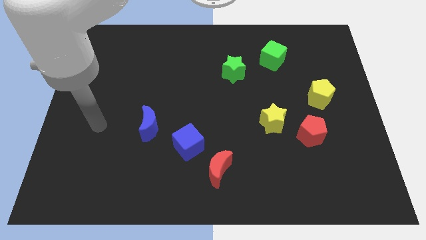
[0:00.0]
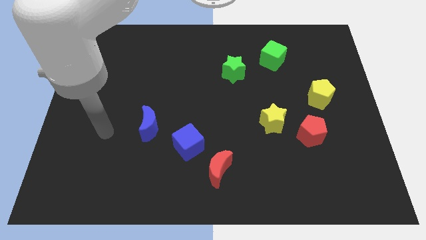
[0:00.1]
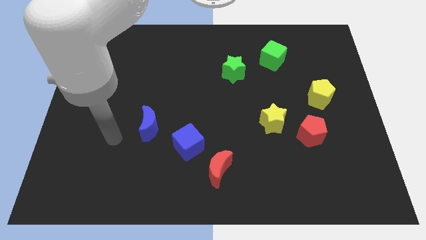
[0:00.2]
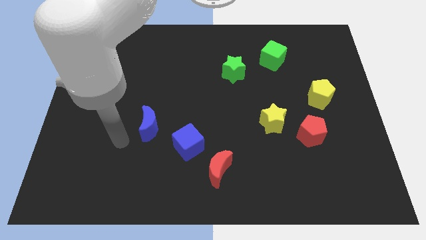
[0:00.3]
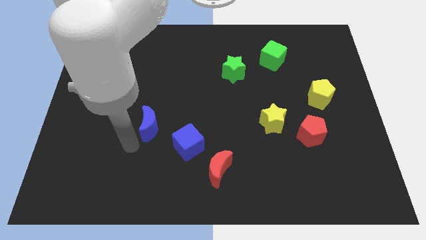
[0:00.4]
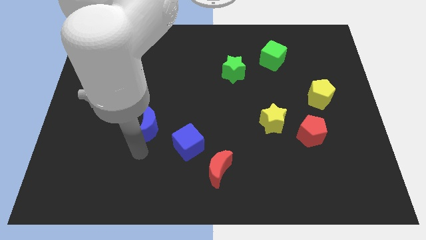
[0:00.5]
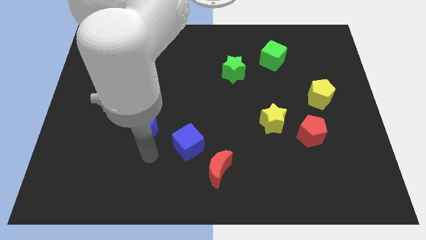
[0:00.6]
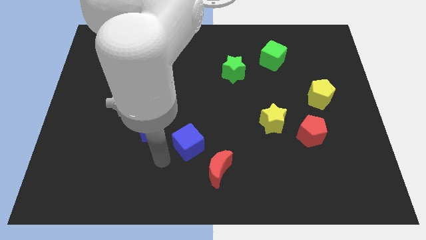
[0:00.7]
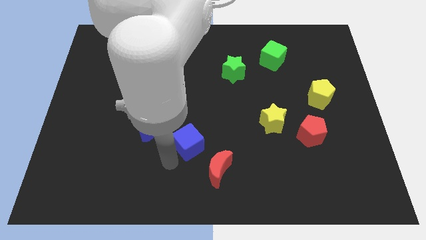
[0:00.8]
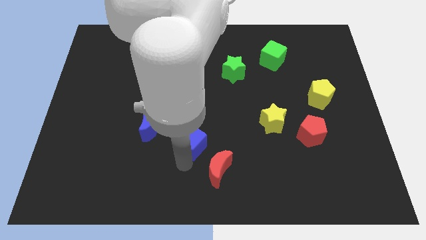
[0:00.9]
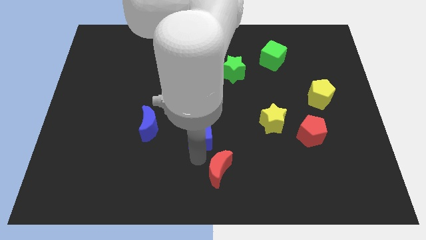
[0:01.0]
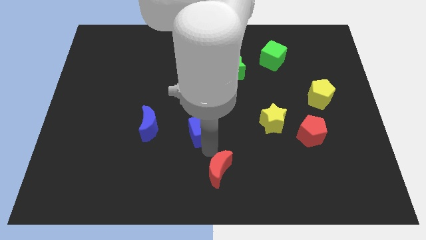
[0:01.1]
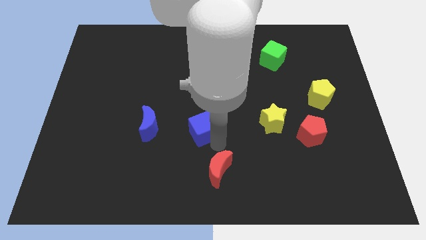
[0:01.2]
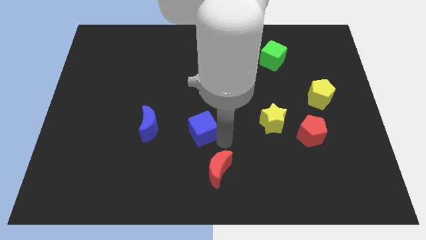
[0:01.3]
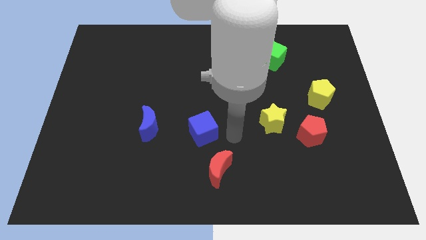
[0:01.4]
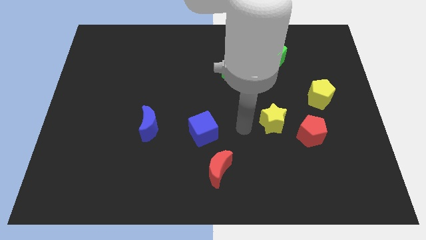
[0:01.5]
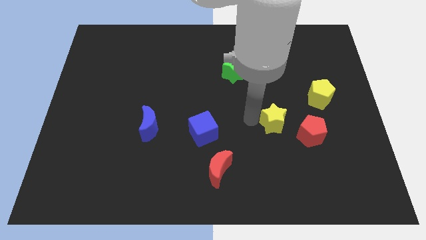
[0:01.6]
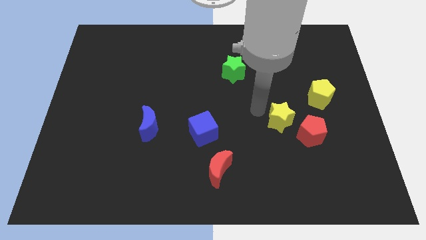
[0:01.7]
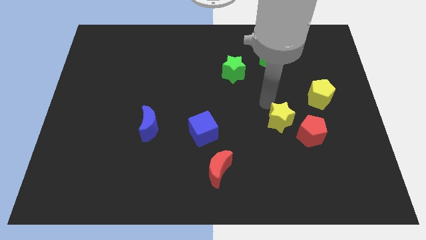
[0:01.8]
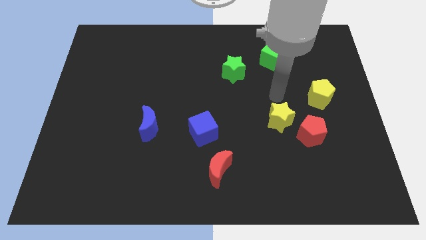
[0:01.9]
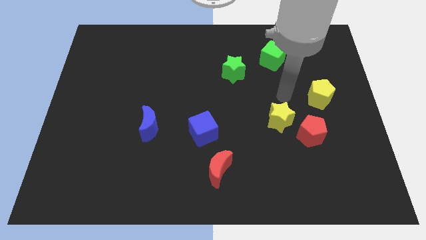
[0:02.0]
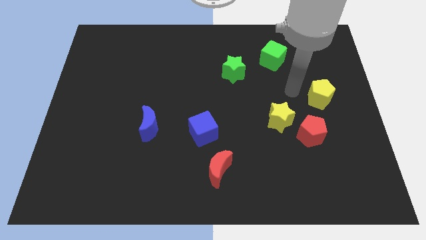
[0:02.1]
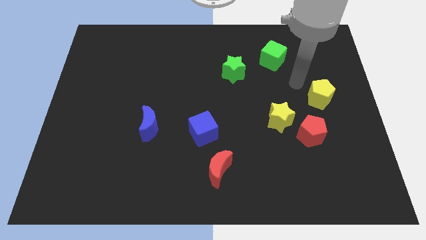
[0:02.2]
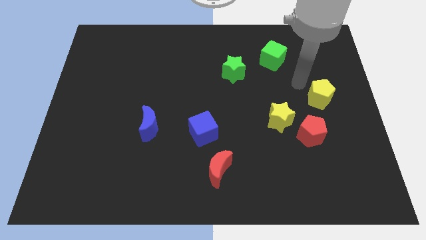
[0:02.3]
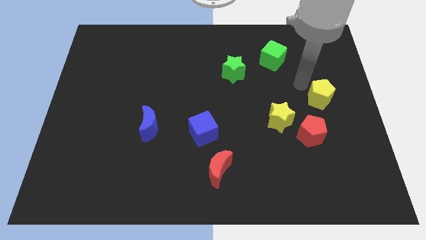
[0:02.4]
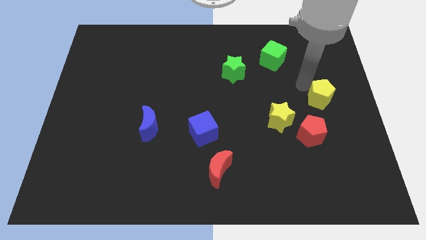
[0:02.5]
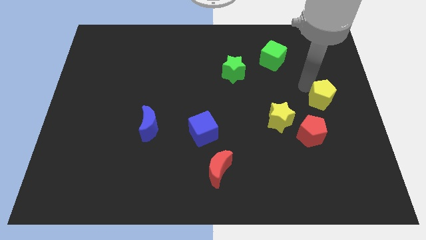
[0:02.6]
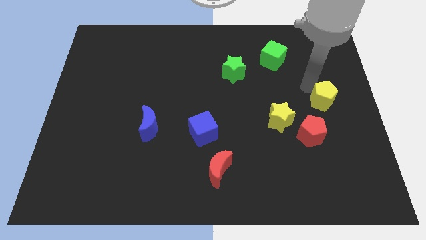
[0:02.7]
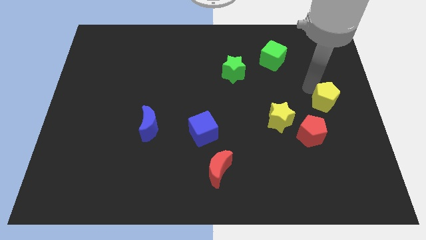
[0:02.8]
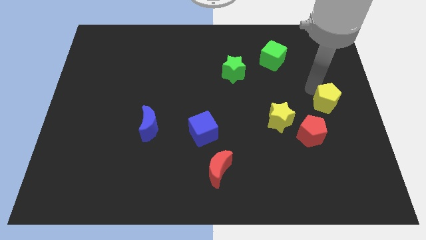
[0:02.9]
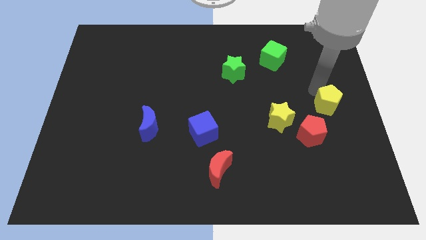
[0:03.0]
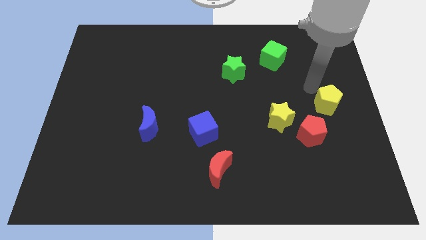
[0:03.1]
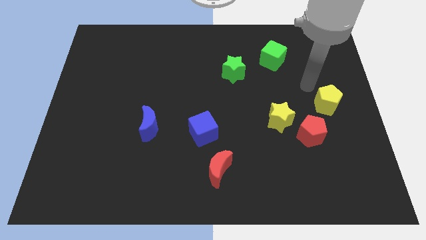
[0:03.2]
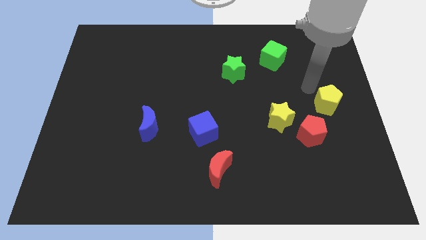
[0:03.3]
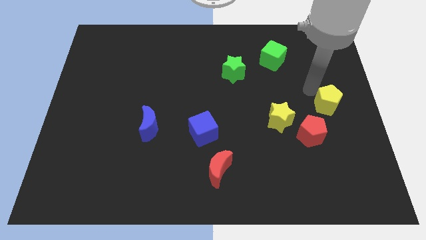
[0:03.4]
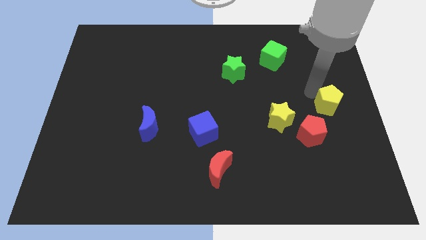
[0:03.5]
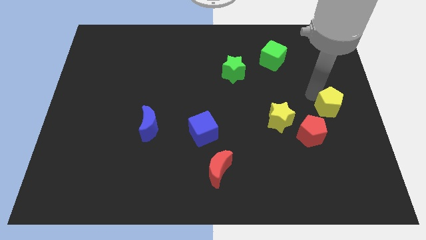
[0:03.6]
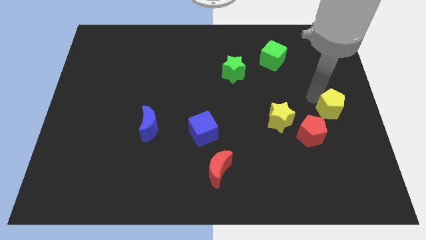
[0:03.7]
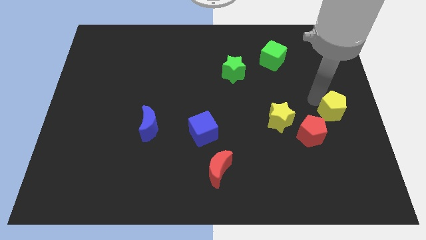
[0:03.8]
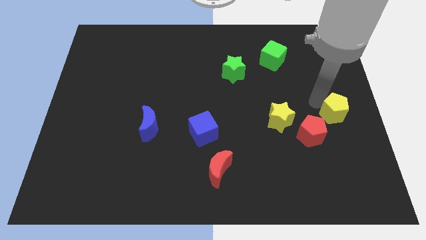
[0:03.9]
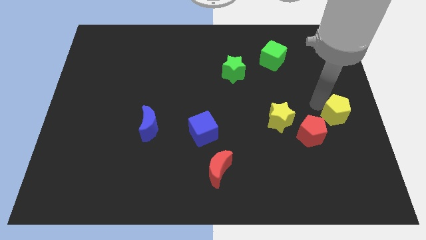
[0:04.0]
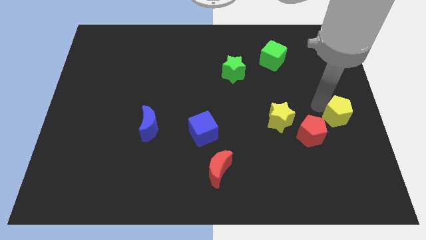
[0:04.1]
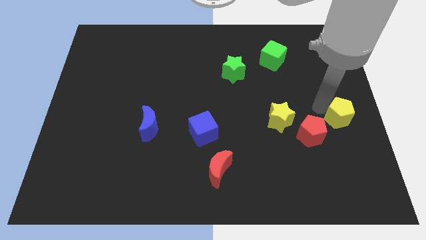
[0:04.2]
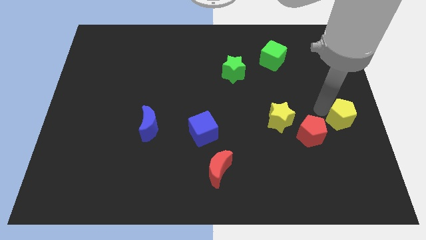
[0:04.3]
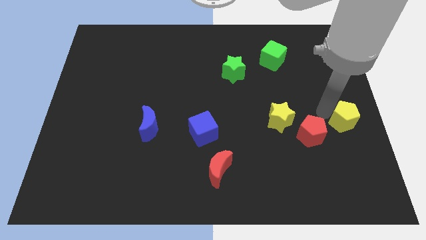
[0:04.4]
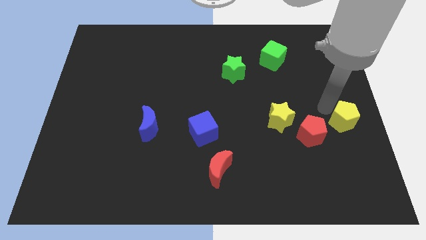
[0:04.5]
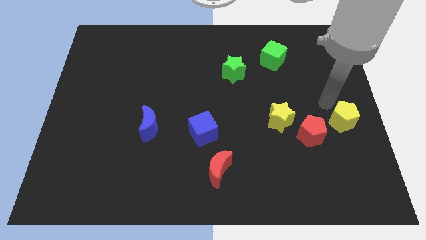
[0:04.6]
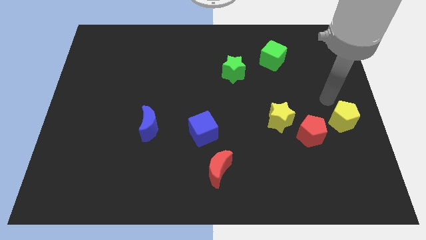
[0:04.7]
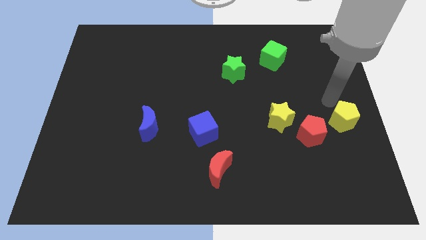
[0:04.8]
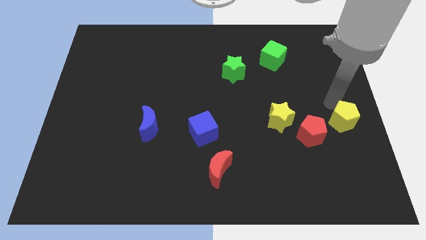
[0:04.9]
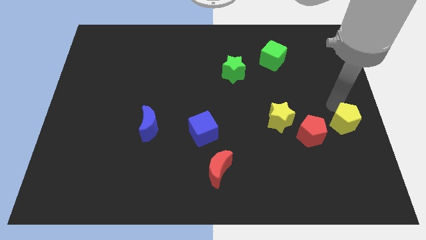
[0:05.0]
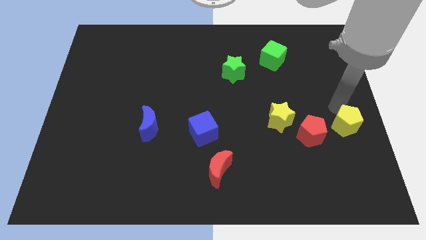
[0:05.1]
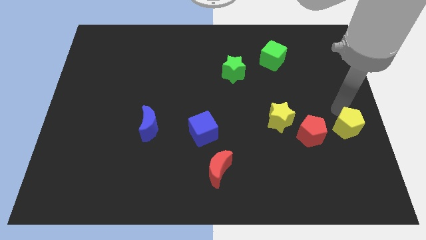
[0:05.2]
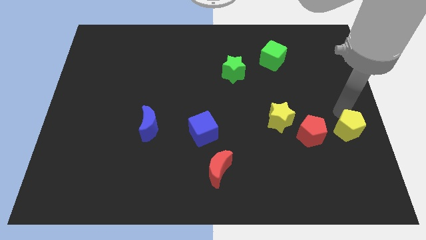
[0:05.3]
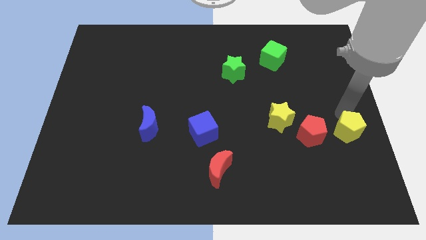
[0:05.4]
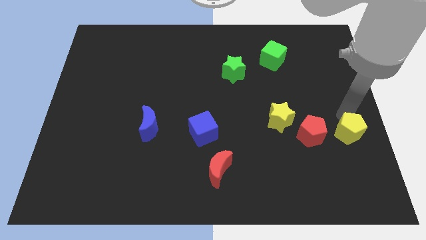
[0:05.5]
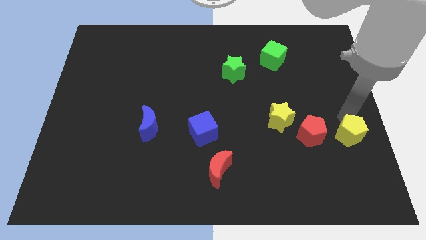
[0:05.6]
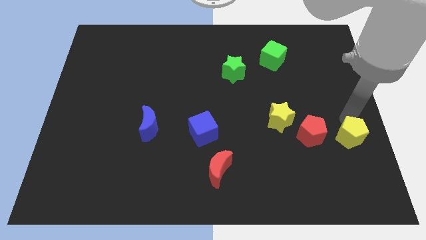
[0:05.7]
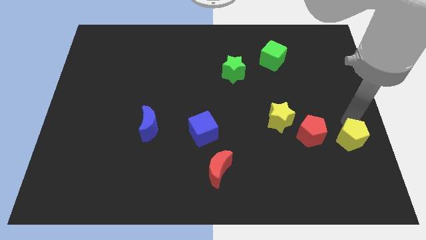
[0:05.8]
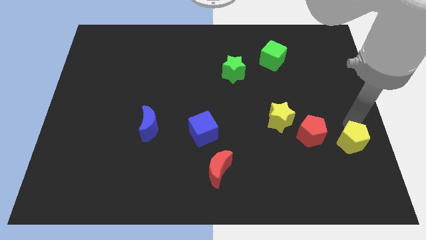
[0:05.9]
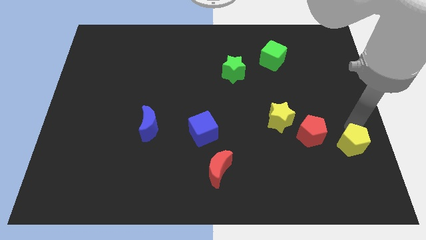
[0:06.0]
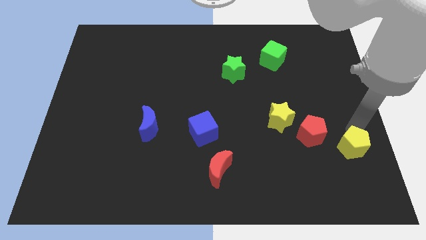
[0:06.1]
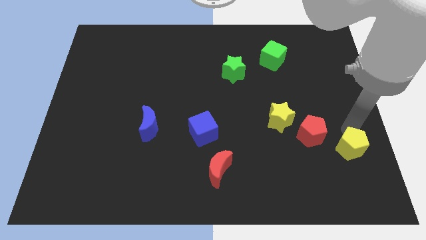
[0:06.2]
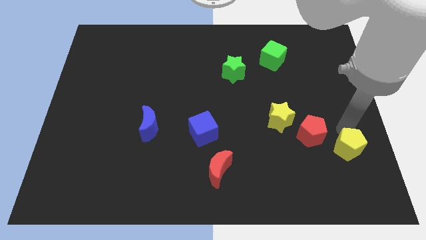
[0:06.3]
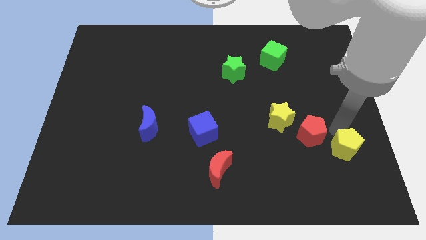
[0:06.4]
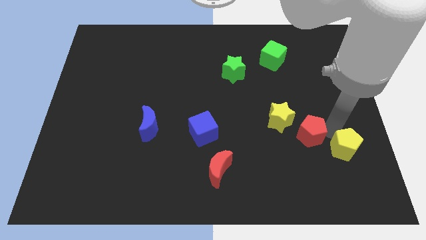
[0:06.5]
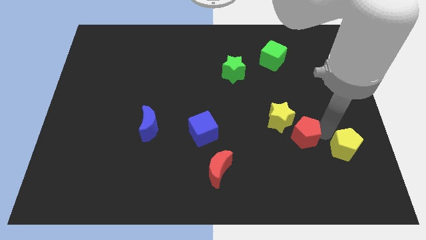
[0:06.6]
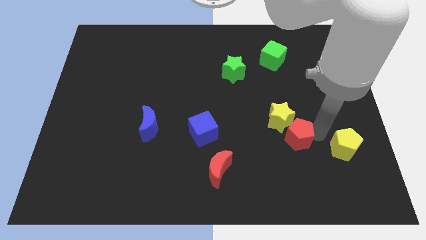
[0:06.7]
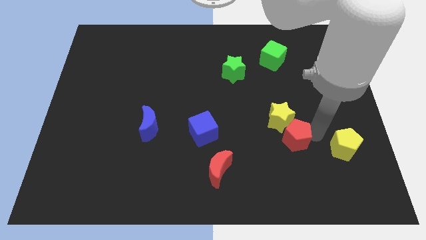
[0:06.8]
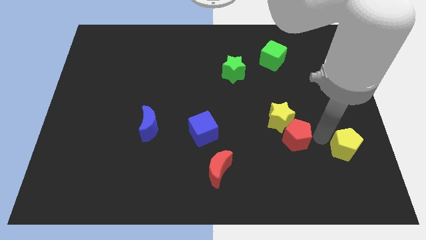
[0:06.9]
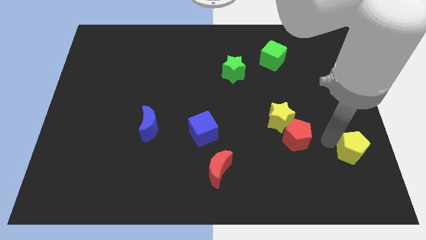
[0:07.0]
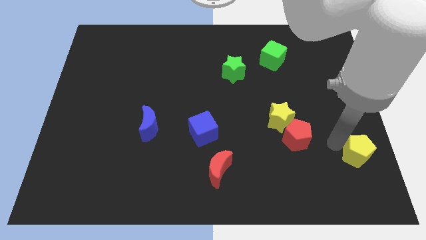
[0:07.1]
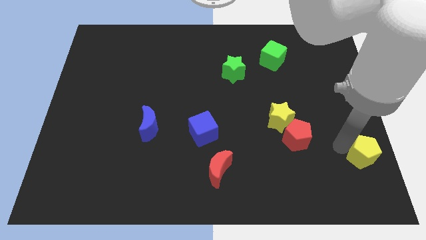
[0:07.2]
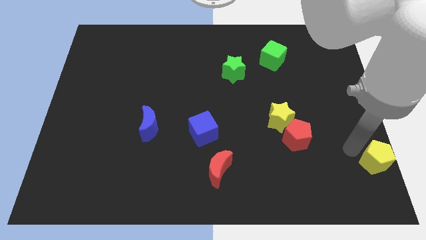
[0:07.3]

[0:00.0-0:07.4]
push the yellow pentagon to the bottom right of the board
